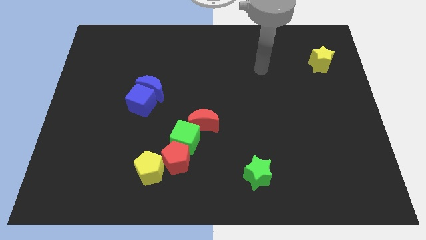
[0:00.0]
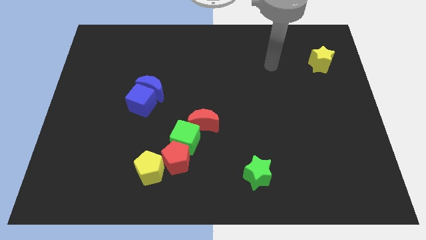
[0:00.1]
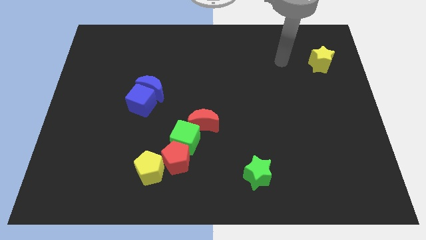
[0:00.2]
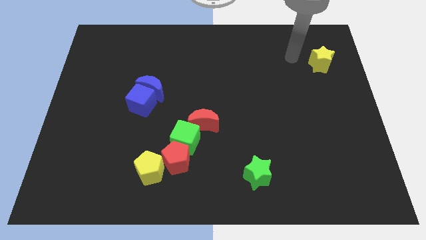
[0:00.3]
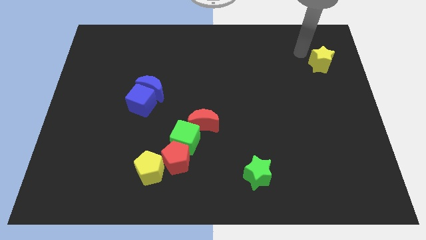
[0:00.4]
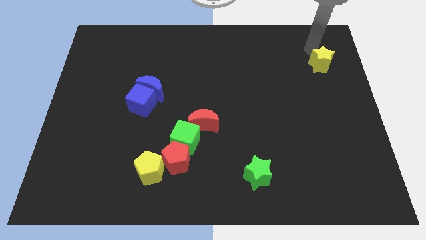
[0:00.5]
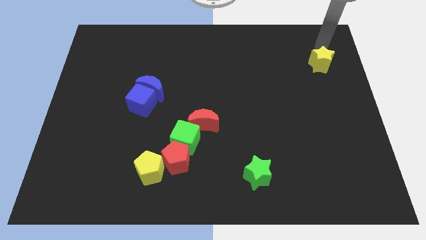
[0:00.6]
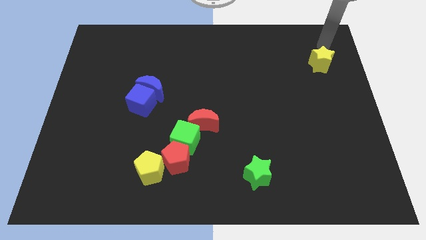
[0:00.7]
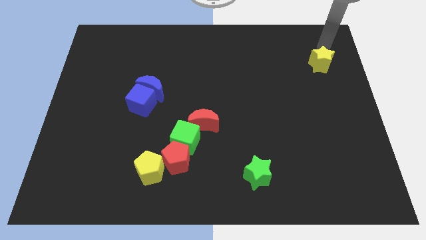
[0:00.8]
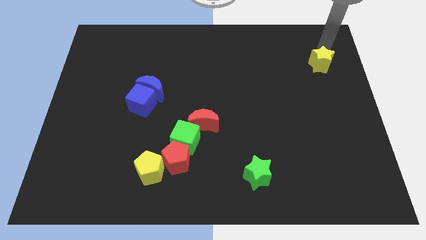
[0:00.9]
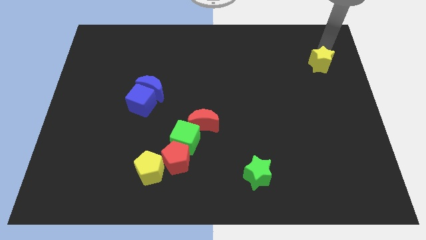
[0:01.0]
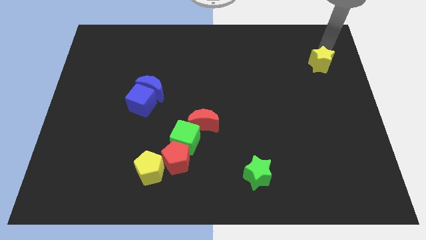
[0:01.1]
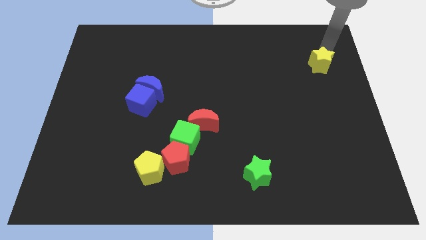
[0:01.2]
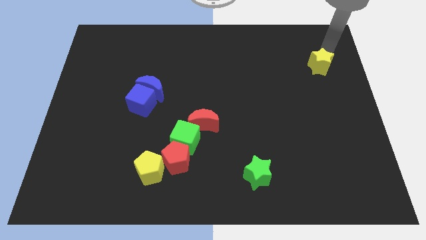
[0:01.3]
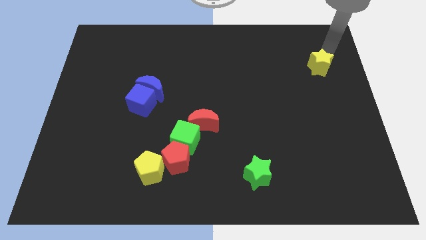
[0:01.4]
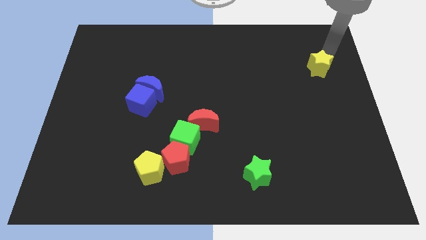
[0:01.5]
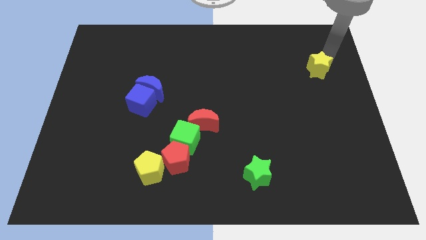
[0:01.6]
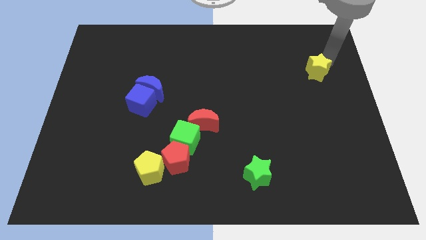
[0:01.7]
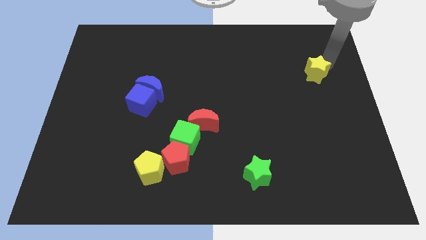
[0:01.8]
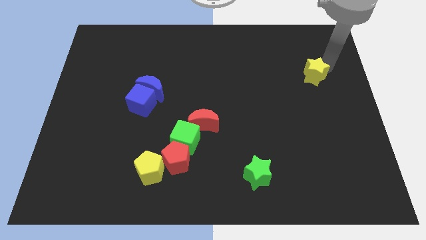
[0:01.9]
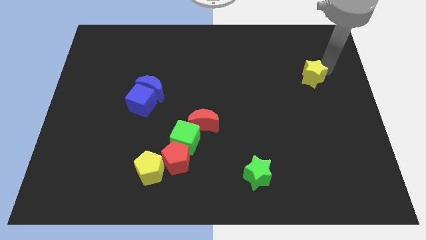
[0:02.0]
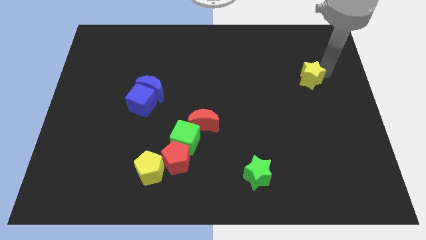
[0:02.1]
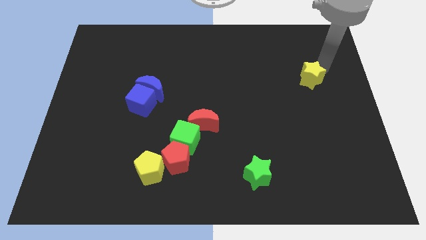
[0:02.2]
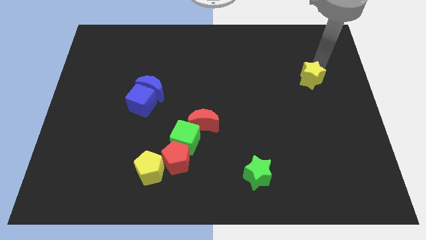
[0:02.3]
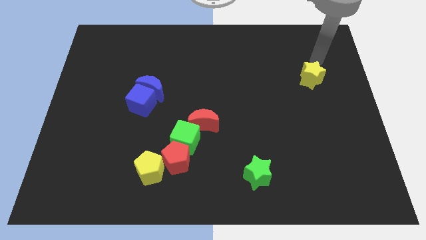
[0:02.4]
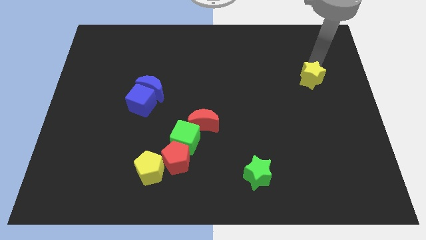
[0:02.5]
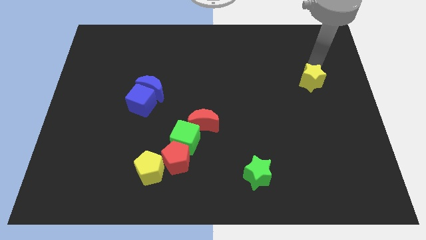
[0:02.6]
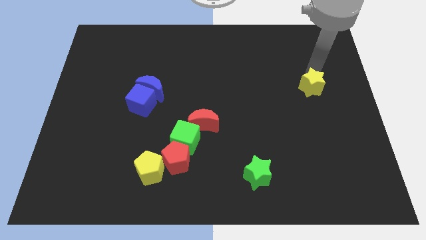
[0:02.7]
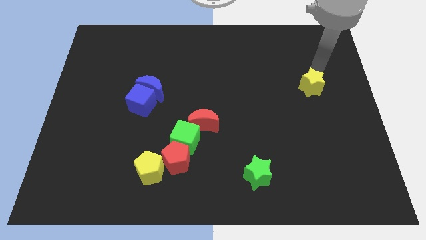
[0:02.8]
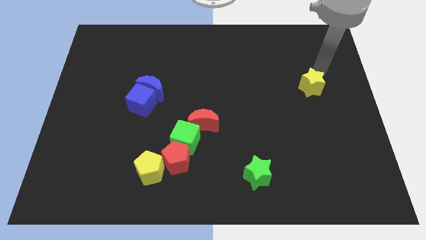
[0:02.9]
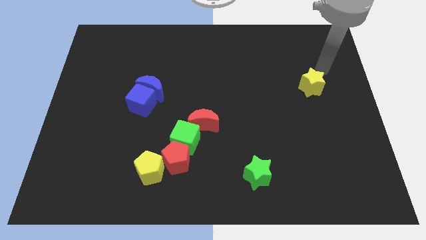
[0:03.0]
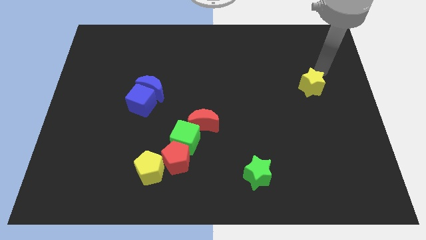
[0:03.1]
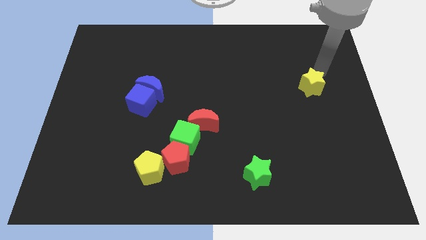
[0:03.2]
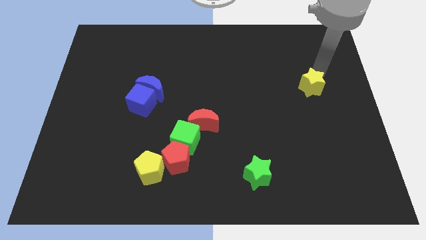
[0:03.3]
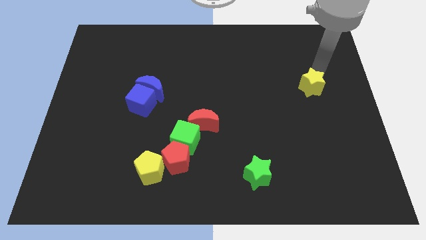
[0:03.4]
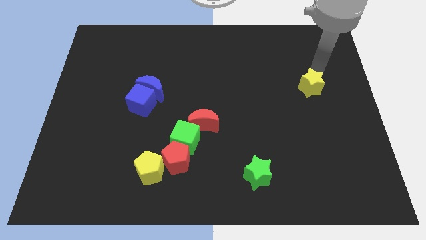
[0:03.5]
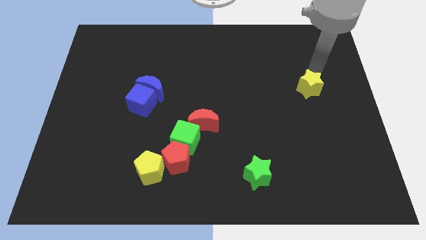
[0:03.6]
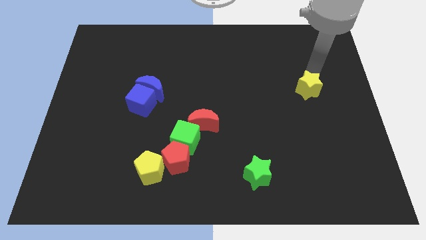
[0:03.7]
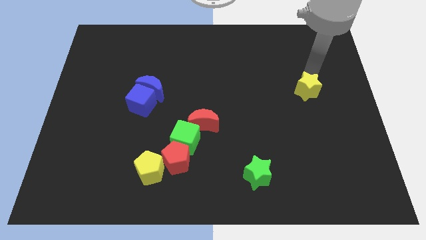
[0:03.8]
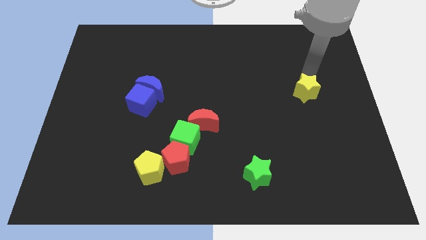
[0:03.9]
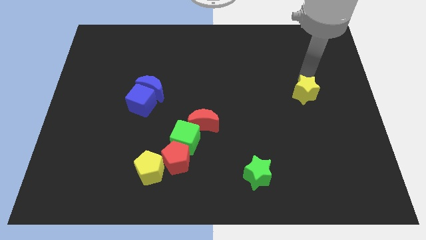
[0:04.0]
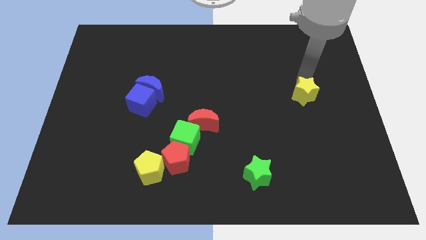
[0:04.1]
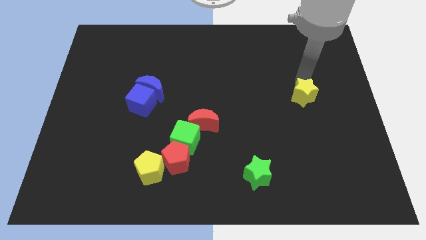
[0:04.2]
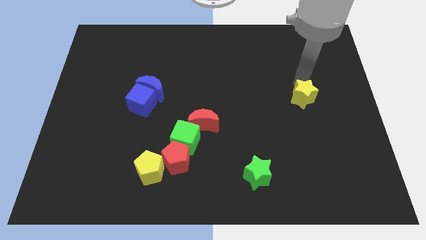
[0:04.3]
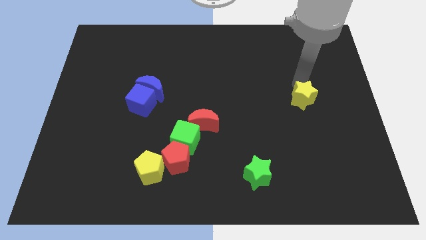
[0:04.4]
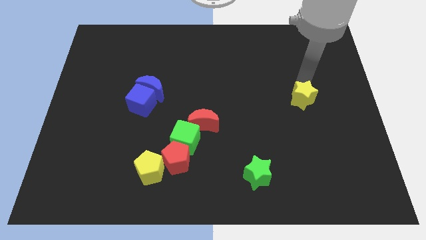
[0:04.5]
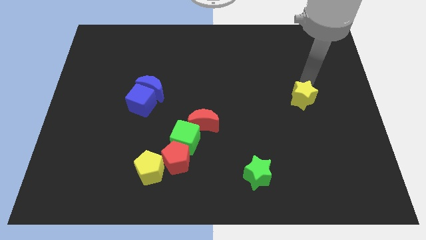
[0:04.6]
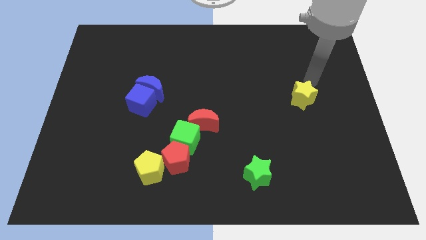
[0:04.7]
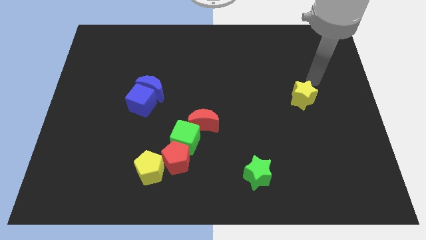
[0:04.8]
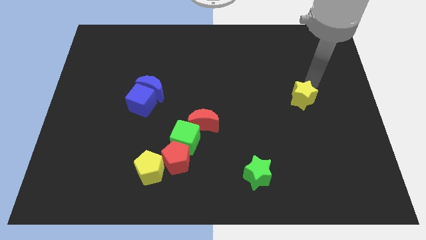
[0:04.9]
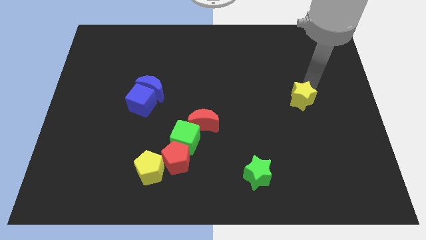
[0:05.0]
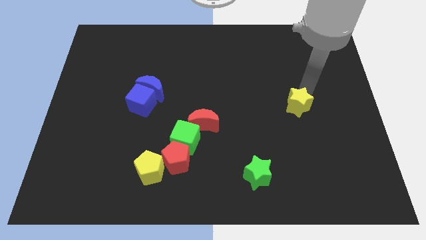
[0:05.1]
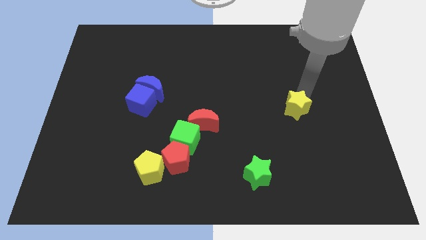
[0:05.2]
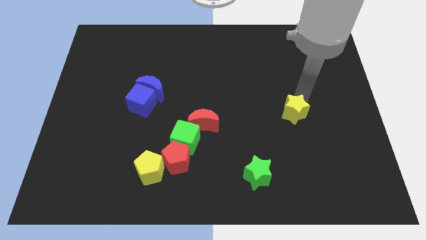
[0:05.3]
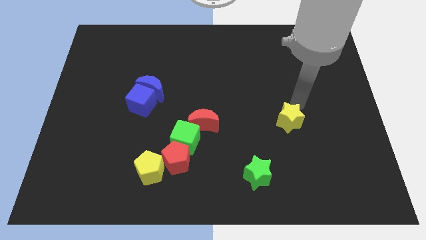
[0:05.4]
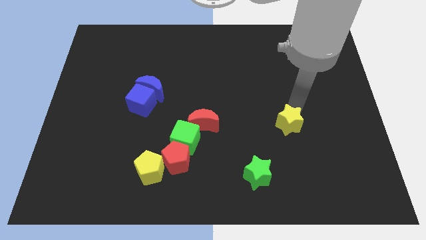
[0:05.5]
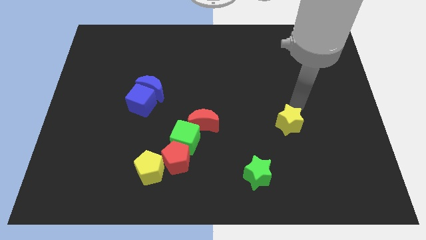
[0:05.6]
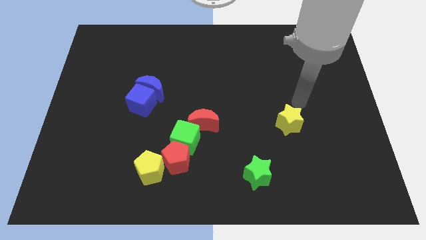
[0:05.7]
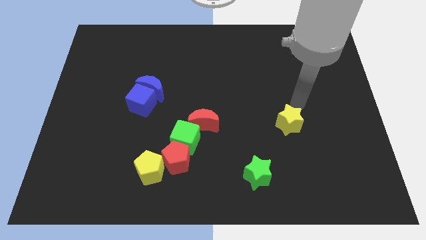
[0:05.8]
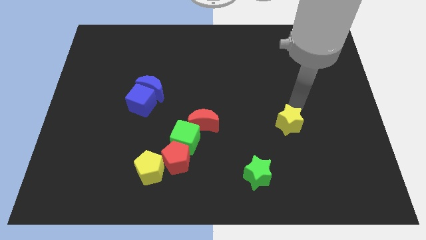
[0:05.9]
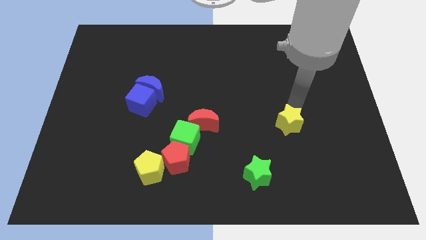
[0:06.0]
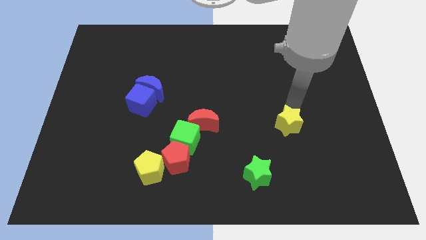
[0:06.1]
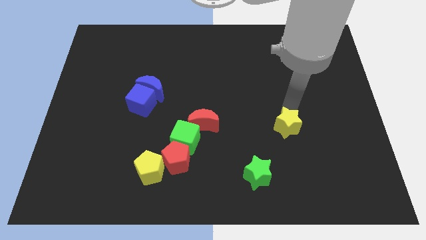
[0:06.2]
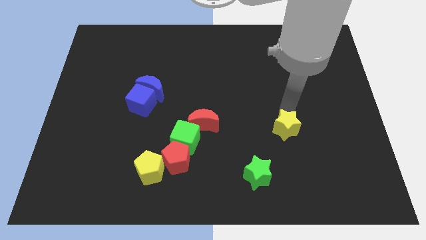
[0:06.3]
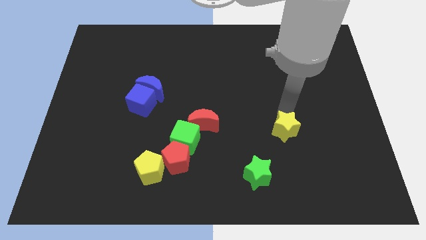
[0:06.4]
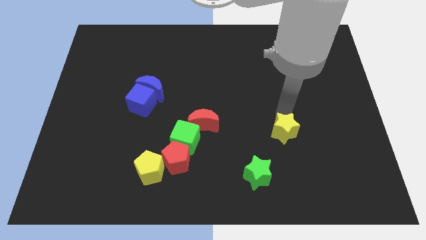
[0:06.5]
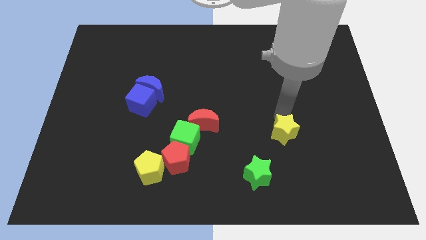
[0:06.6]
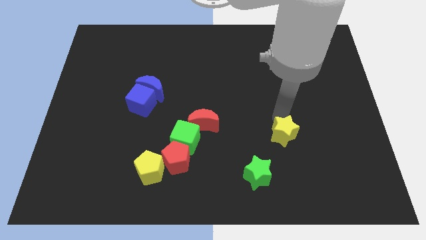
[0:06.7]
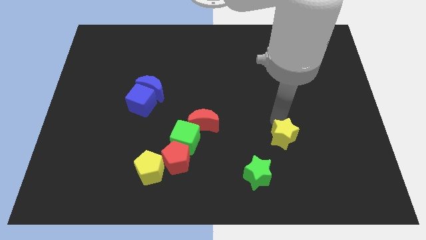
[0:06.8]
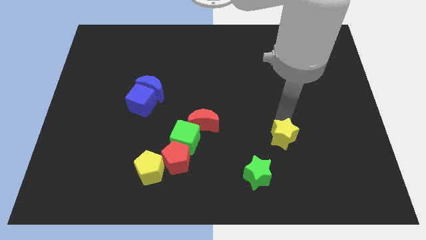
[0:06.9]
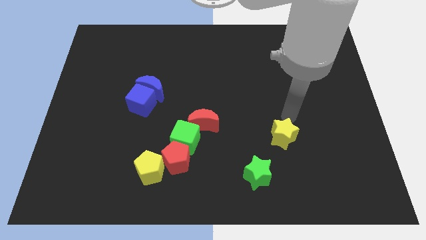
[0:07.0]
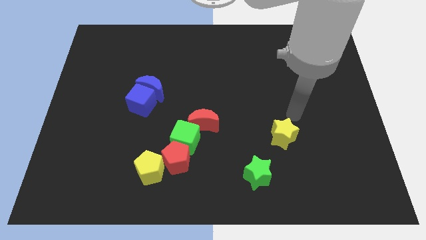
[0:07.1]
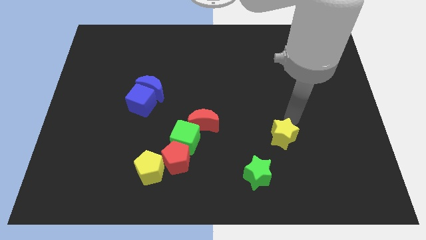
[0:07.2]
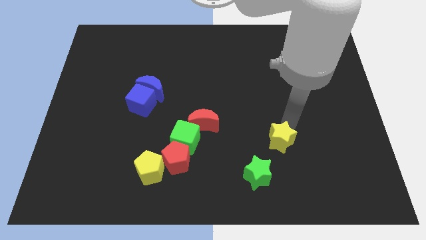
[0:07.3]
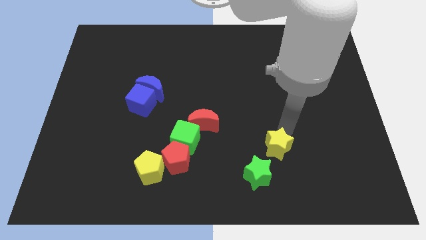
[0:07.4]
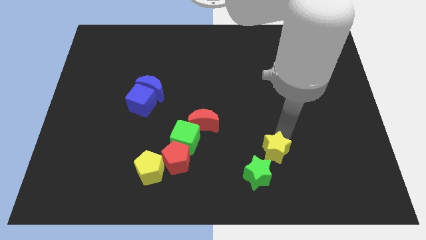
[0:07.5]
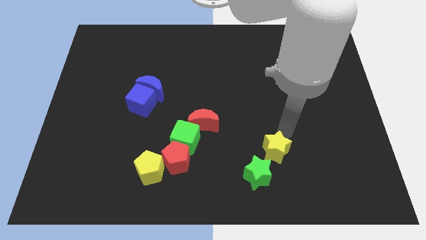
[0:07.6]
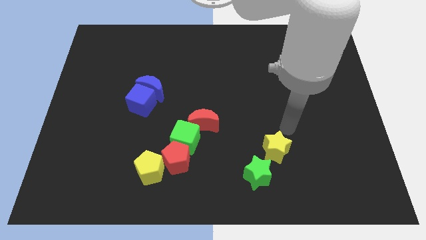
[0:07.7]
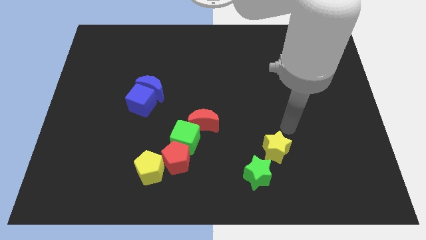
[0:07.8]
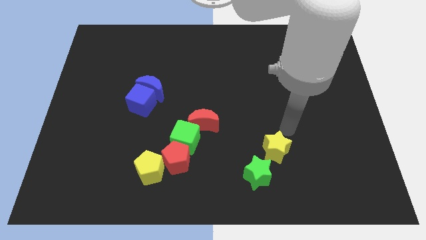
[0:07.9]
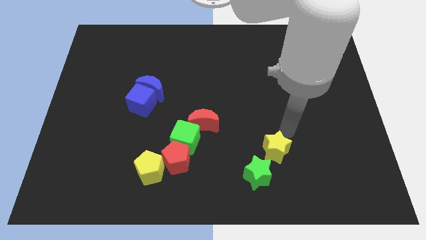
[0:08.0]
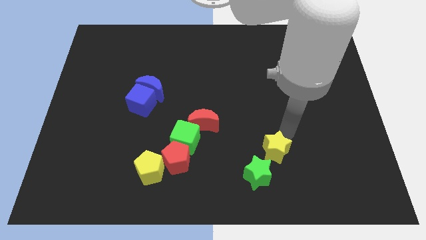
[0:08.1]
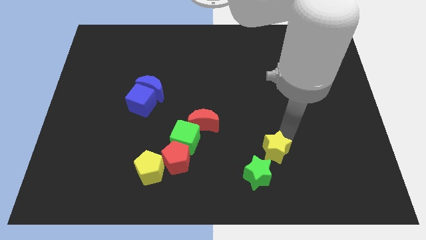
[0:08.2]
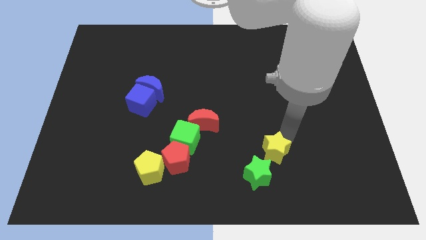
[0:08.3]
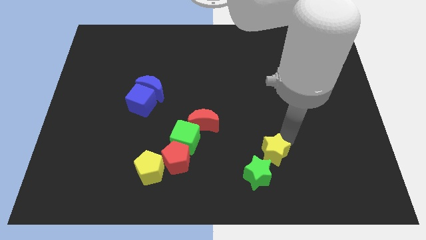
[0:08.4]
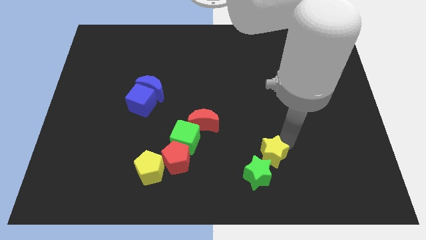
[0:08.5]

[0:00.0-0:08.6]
slide the yellow star towards the green star
